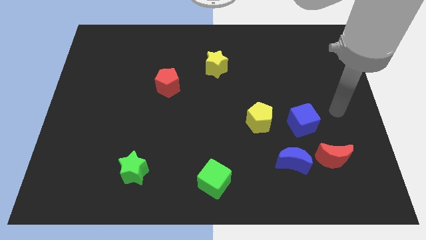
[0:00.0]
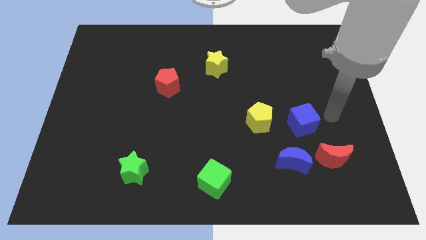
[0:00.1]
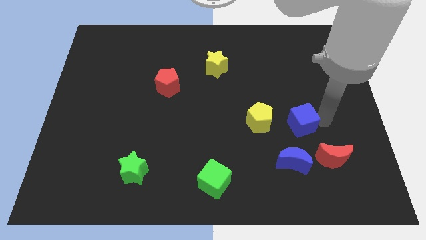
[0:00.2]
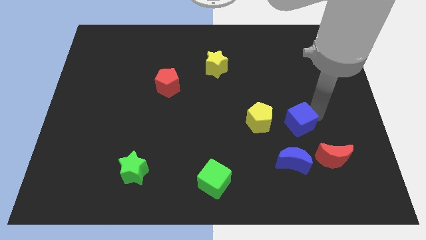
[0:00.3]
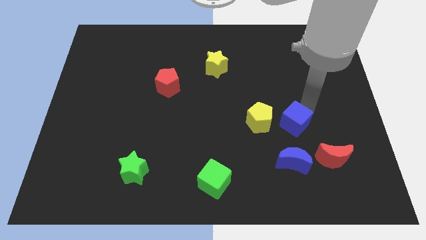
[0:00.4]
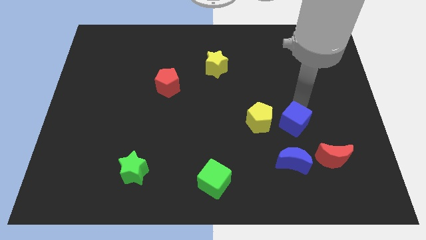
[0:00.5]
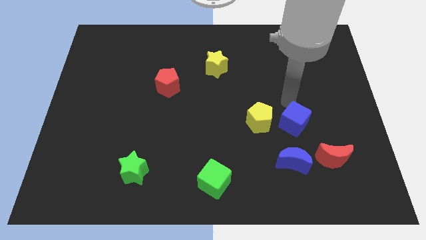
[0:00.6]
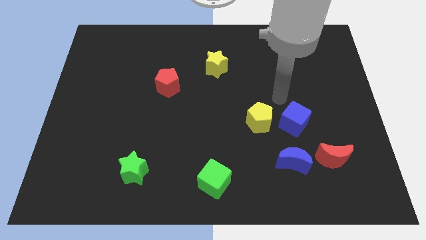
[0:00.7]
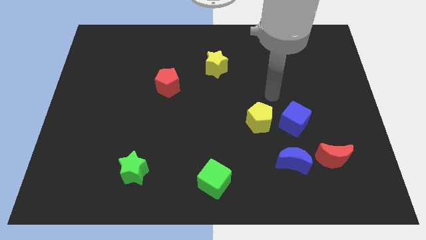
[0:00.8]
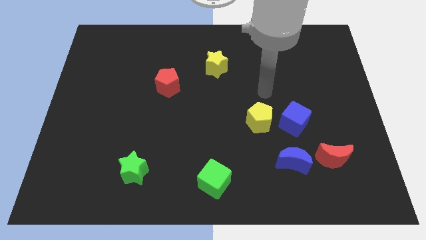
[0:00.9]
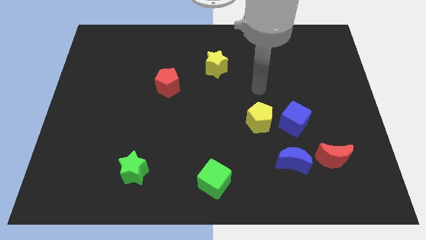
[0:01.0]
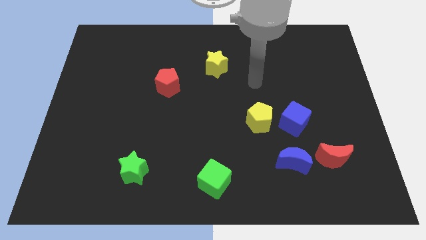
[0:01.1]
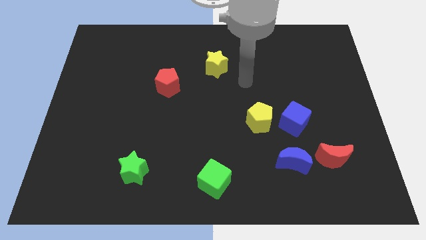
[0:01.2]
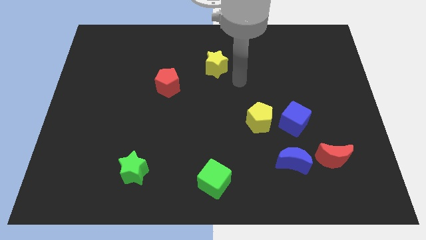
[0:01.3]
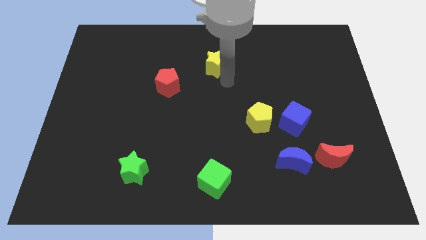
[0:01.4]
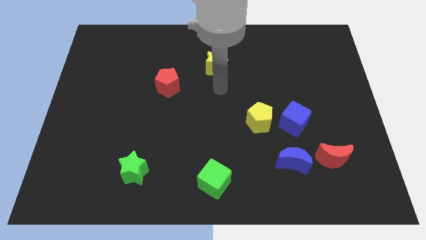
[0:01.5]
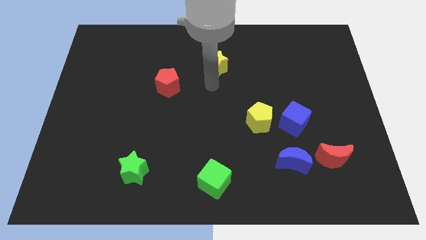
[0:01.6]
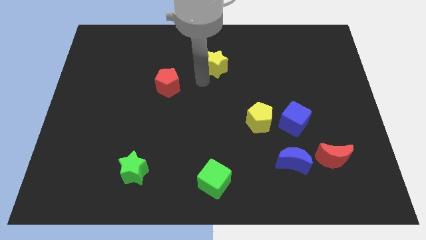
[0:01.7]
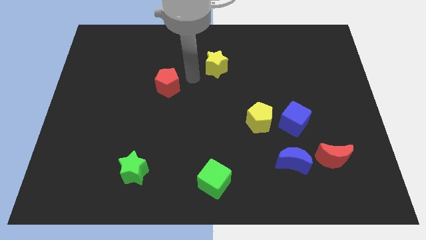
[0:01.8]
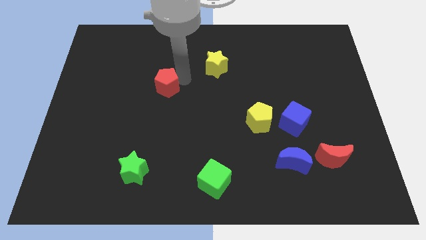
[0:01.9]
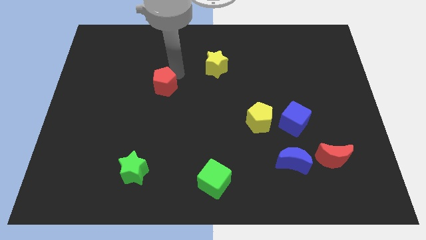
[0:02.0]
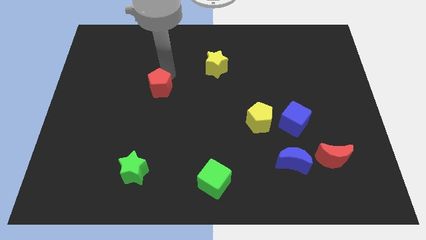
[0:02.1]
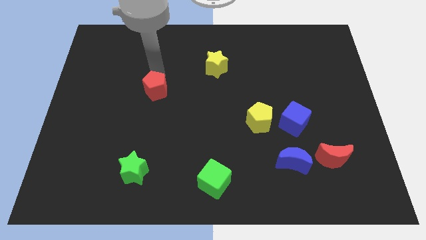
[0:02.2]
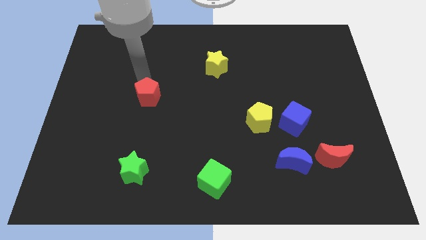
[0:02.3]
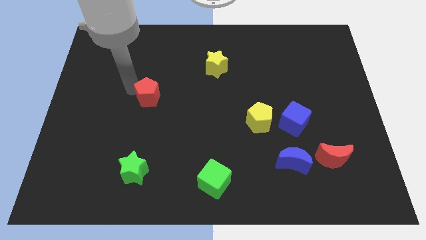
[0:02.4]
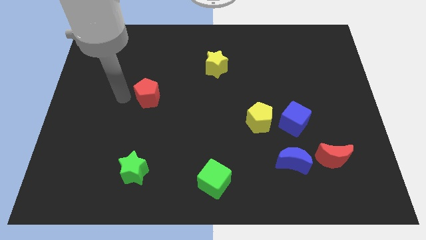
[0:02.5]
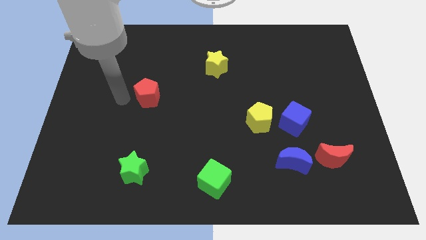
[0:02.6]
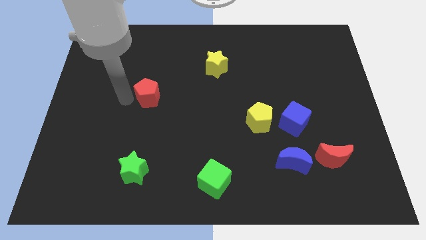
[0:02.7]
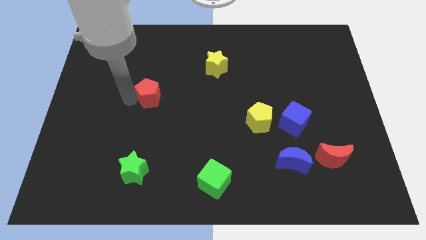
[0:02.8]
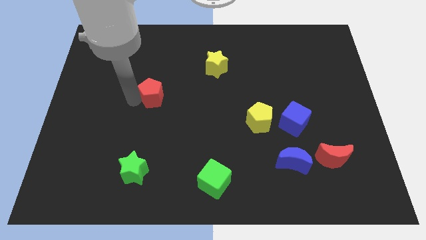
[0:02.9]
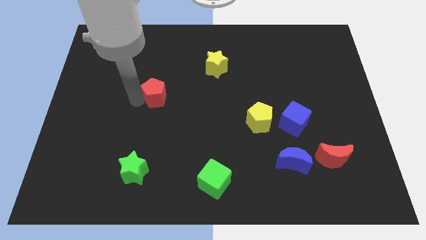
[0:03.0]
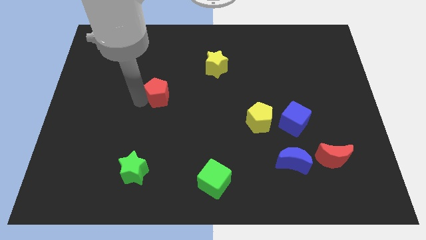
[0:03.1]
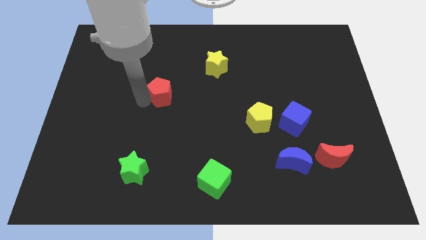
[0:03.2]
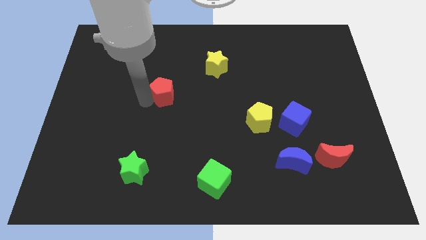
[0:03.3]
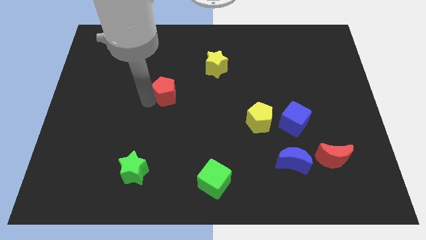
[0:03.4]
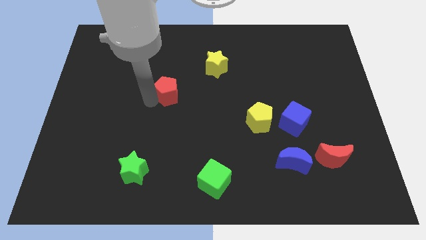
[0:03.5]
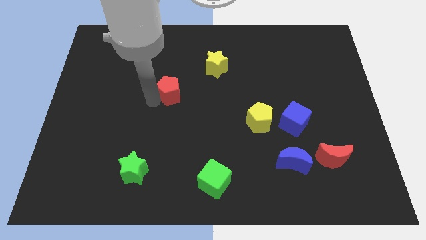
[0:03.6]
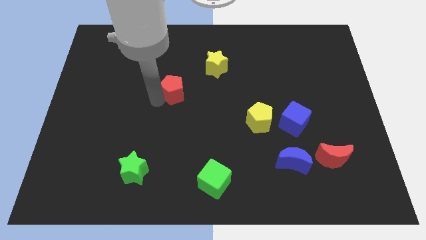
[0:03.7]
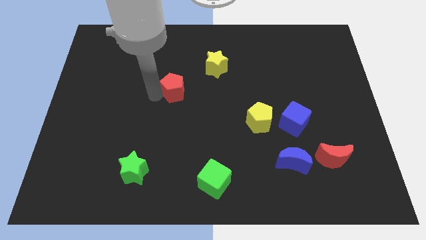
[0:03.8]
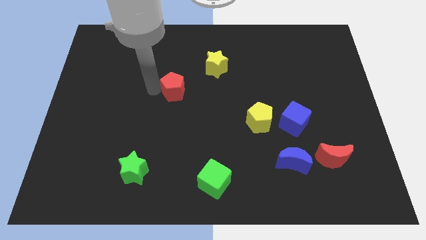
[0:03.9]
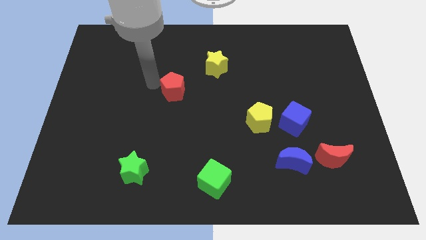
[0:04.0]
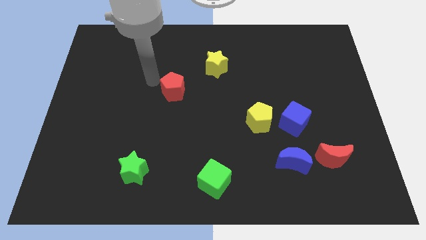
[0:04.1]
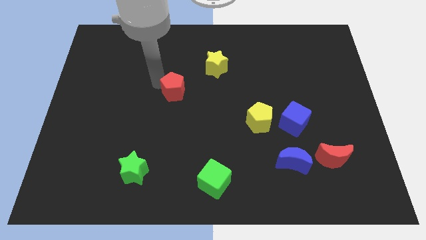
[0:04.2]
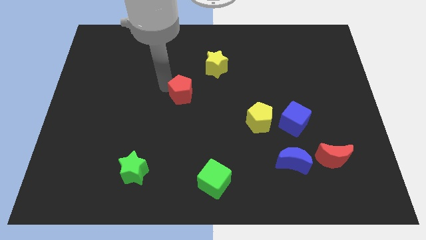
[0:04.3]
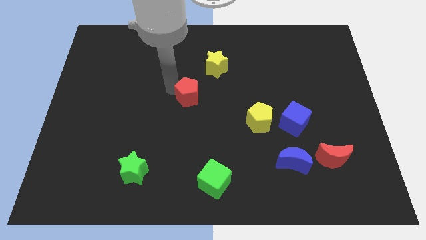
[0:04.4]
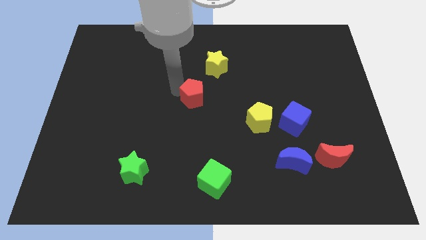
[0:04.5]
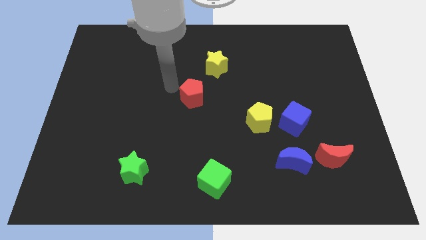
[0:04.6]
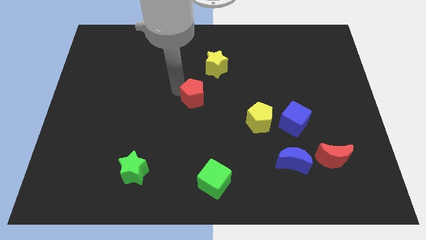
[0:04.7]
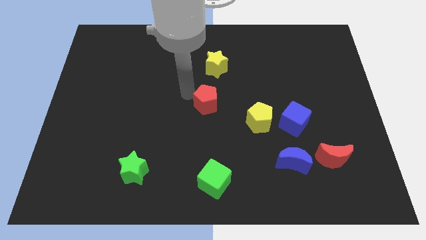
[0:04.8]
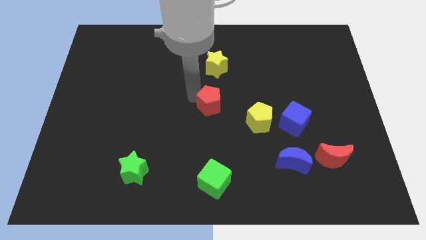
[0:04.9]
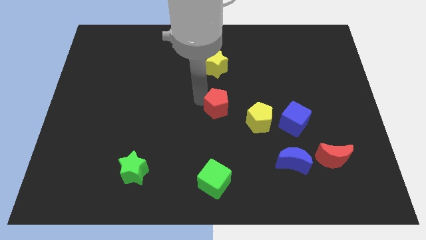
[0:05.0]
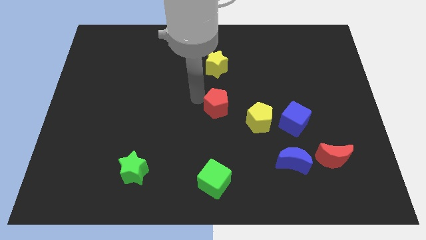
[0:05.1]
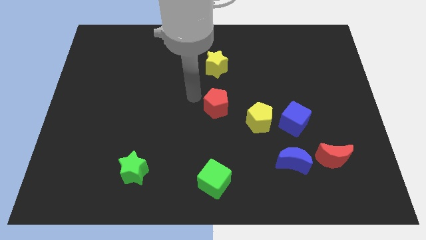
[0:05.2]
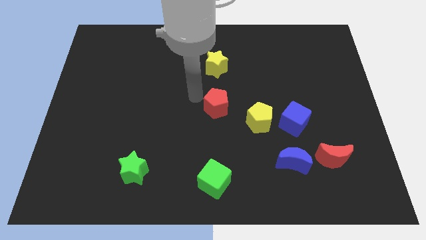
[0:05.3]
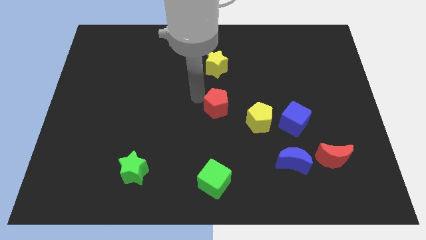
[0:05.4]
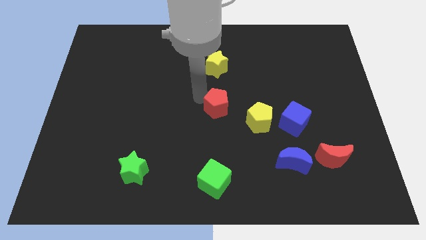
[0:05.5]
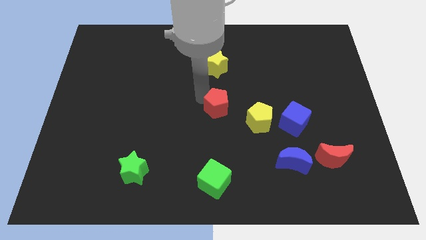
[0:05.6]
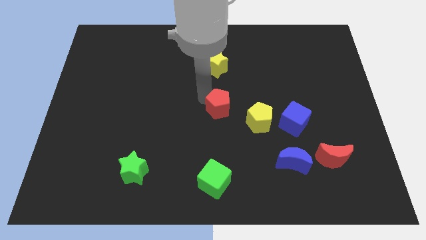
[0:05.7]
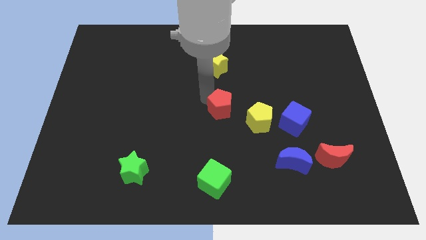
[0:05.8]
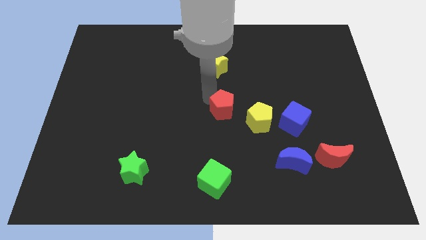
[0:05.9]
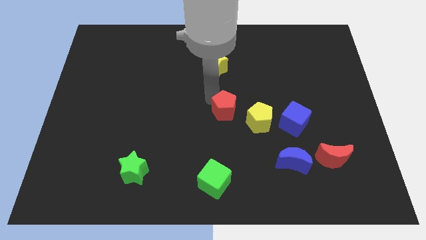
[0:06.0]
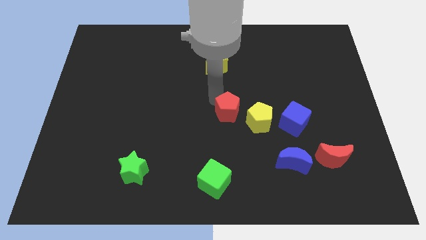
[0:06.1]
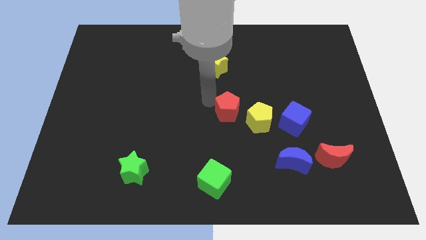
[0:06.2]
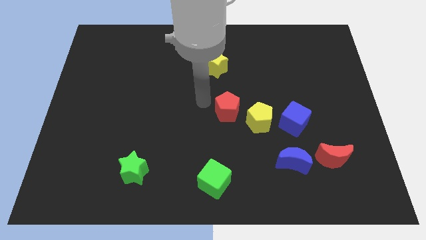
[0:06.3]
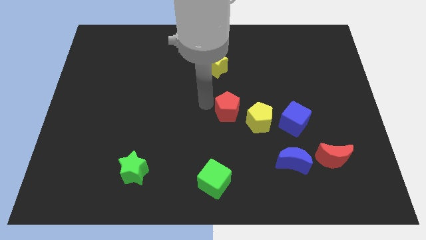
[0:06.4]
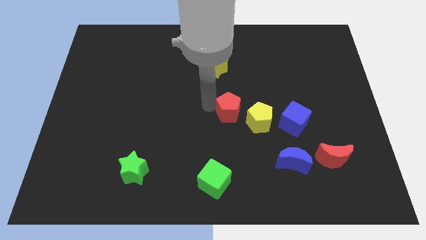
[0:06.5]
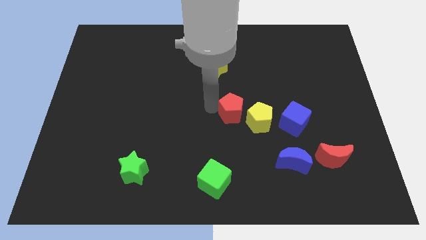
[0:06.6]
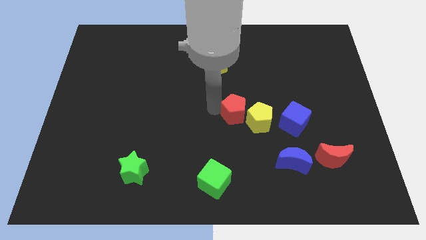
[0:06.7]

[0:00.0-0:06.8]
slide the red pentagon to the yellow pentagon
